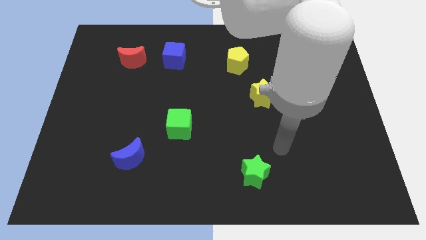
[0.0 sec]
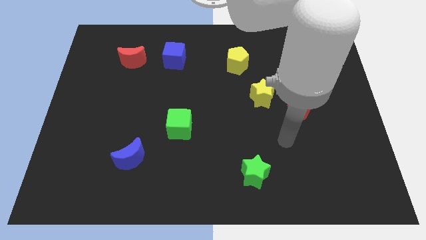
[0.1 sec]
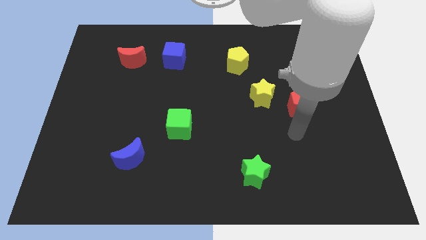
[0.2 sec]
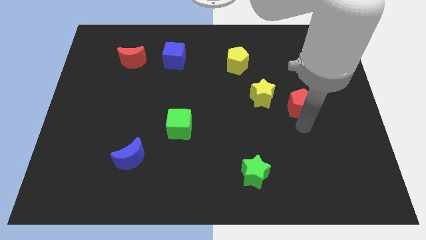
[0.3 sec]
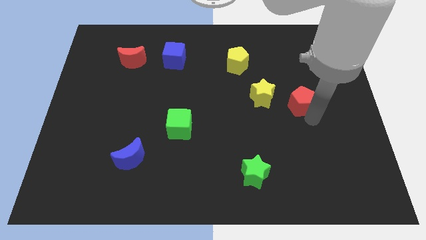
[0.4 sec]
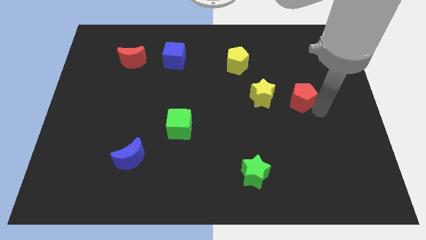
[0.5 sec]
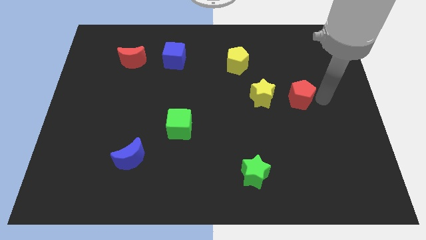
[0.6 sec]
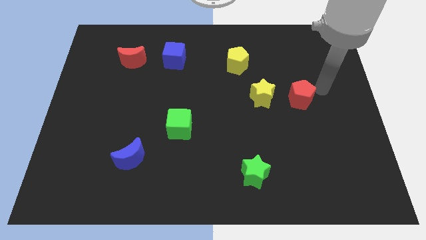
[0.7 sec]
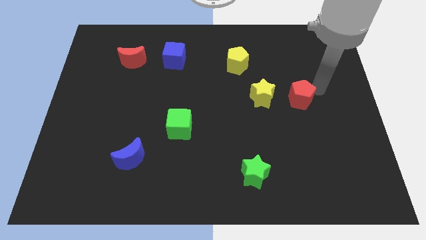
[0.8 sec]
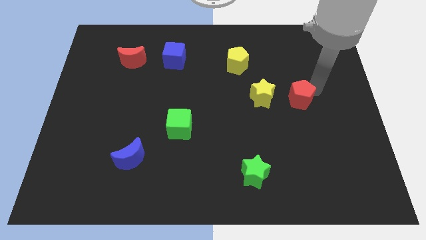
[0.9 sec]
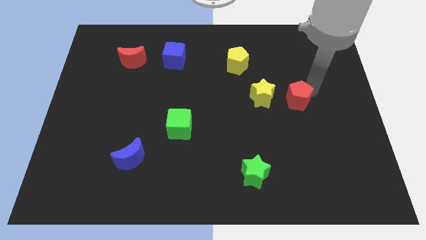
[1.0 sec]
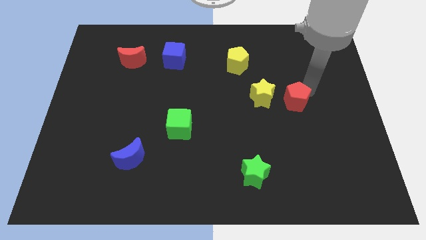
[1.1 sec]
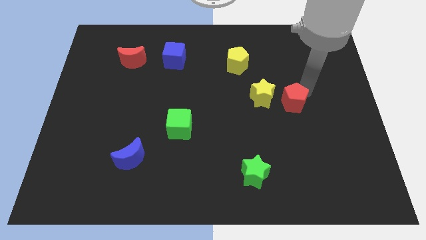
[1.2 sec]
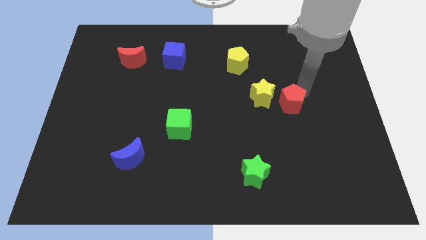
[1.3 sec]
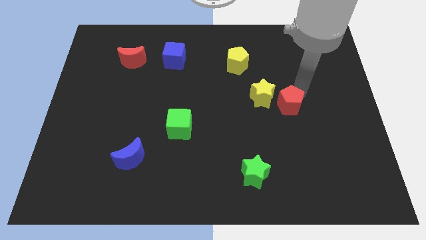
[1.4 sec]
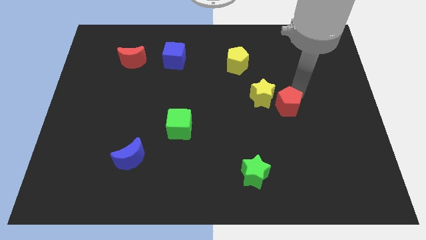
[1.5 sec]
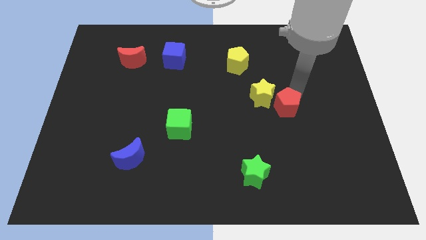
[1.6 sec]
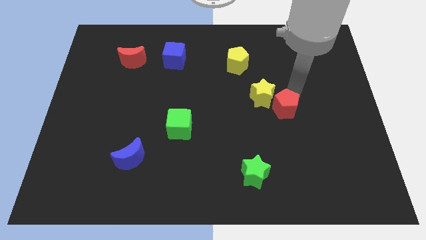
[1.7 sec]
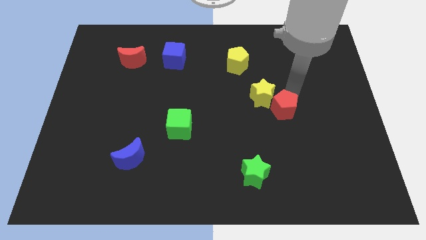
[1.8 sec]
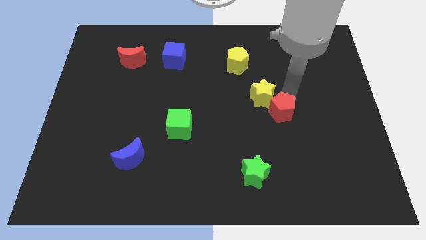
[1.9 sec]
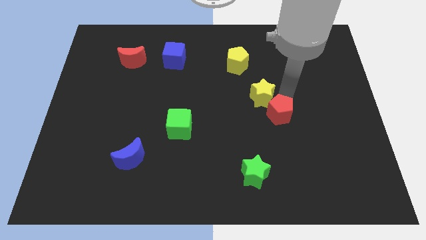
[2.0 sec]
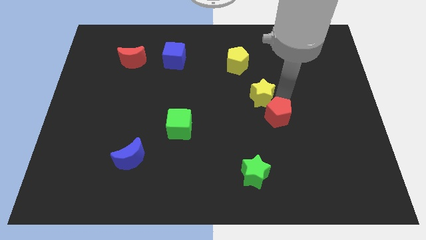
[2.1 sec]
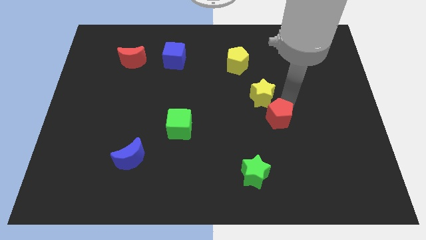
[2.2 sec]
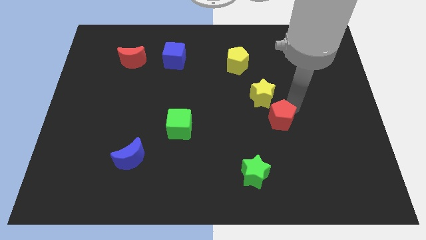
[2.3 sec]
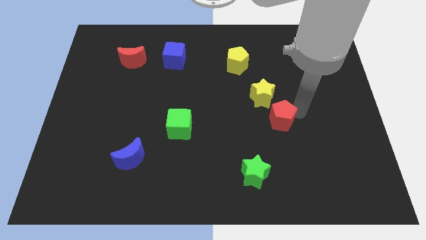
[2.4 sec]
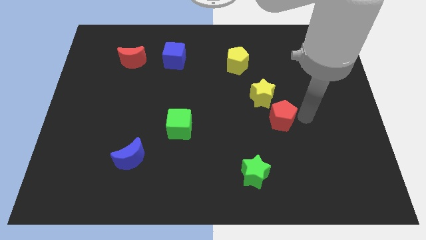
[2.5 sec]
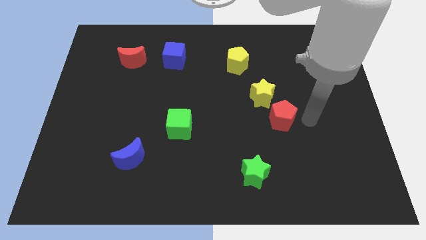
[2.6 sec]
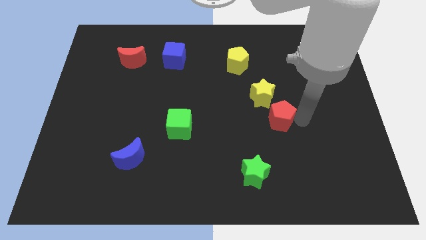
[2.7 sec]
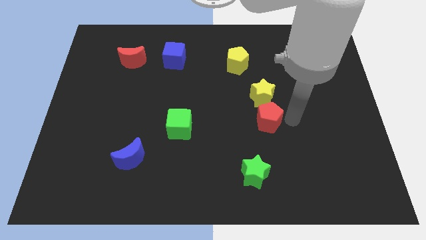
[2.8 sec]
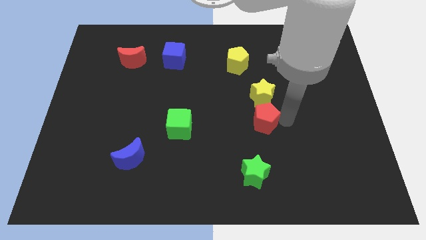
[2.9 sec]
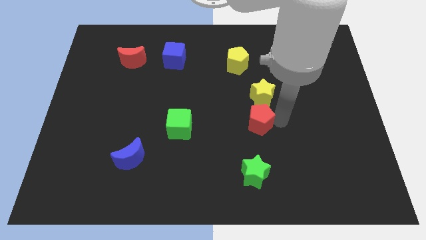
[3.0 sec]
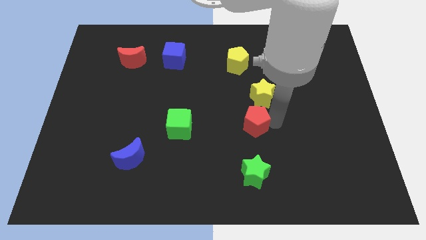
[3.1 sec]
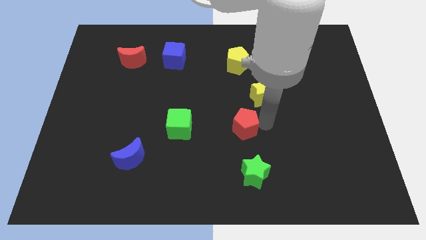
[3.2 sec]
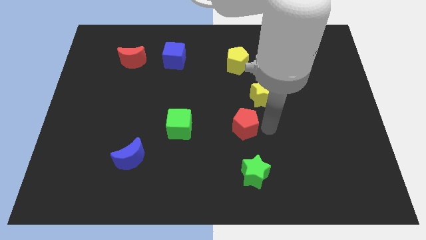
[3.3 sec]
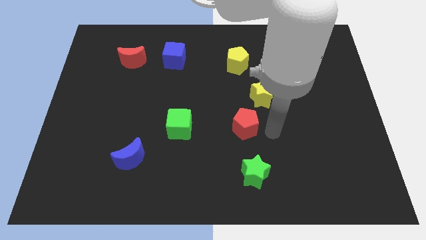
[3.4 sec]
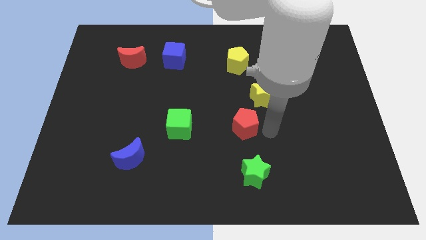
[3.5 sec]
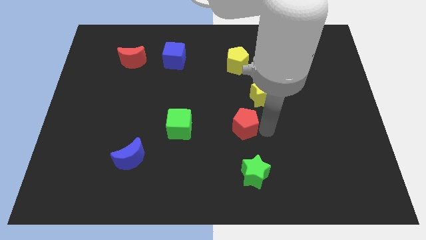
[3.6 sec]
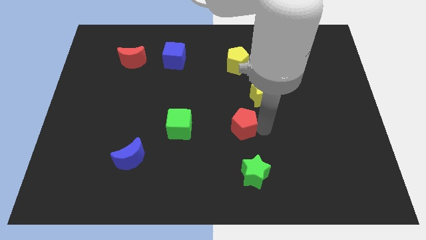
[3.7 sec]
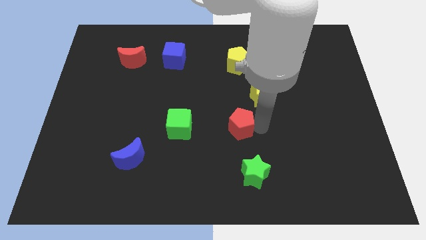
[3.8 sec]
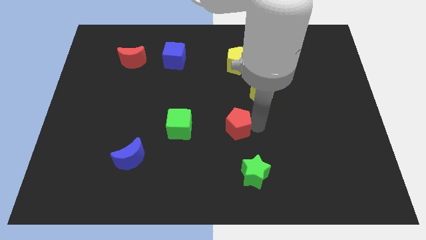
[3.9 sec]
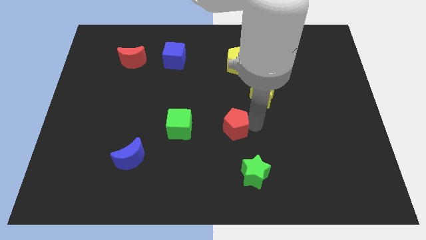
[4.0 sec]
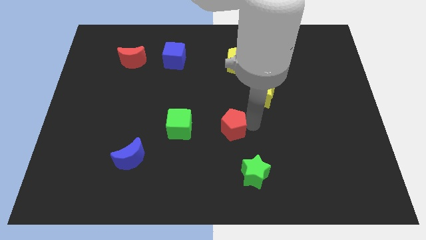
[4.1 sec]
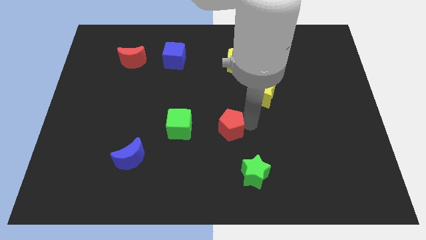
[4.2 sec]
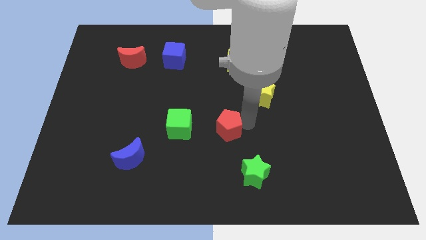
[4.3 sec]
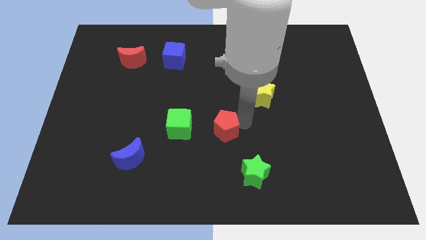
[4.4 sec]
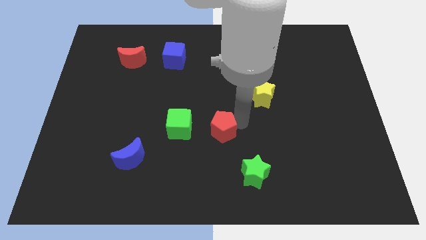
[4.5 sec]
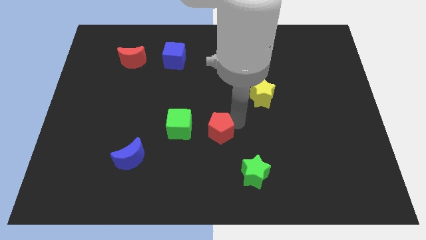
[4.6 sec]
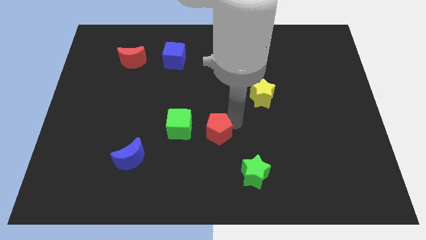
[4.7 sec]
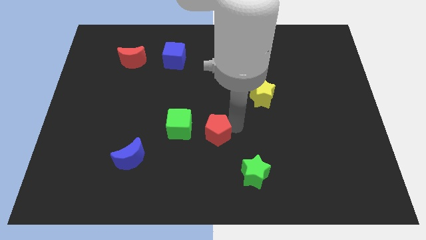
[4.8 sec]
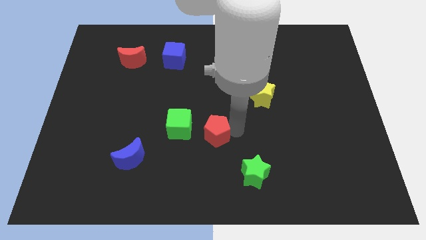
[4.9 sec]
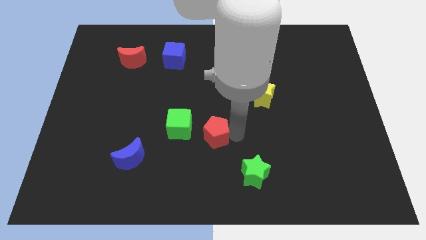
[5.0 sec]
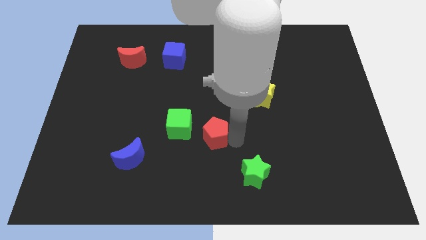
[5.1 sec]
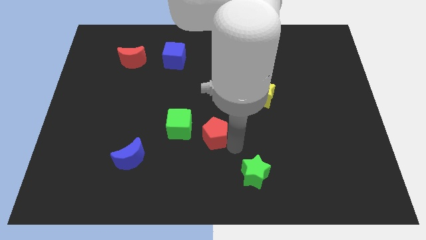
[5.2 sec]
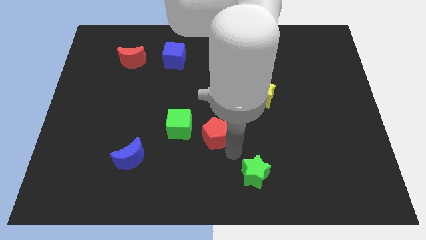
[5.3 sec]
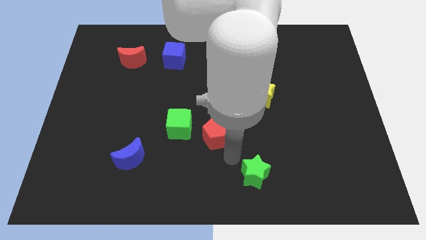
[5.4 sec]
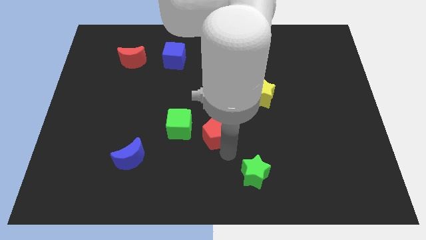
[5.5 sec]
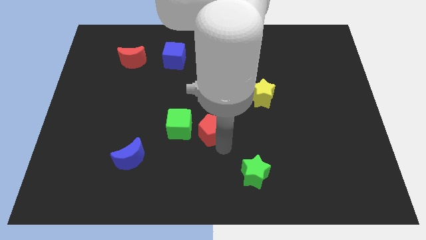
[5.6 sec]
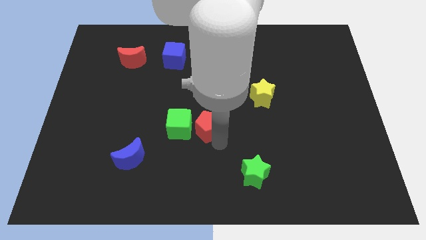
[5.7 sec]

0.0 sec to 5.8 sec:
move the red pentagon next to the green cube

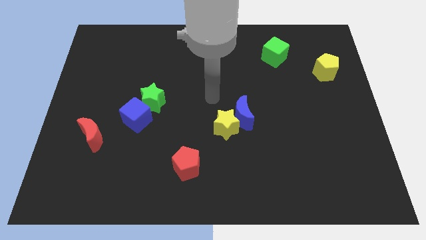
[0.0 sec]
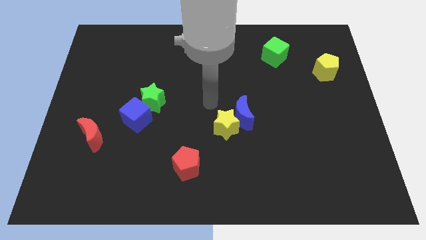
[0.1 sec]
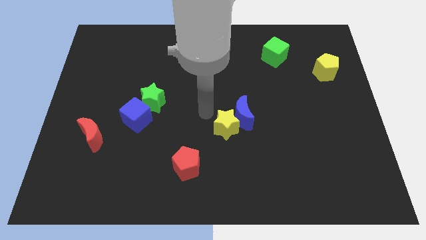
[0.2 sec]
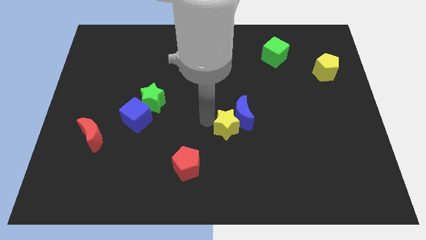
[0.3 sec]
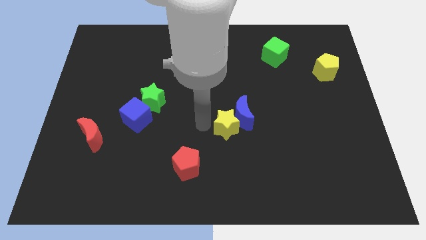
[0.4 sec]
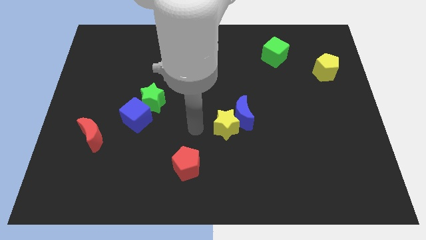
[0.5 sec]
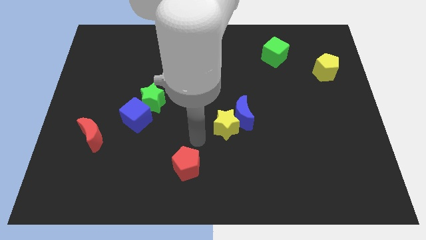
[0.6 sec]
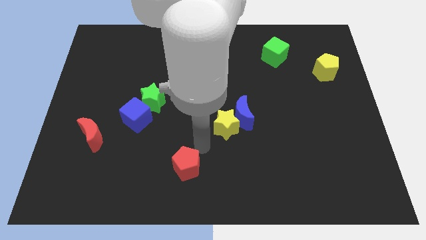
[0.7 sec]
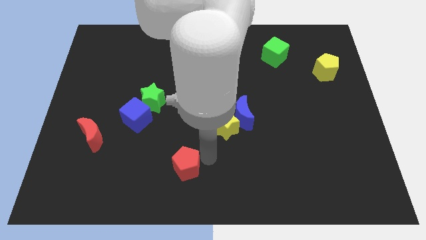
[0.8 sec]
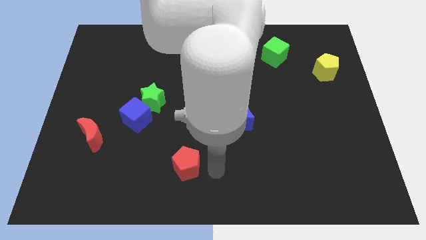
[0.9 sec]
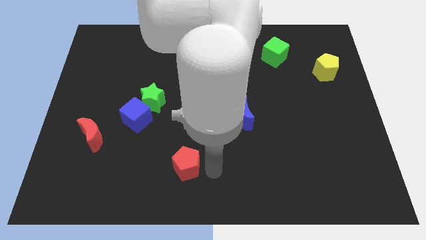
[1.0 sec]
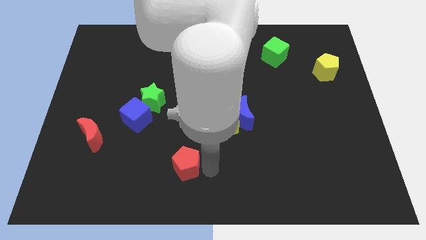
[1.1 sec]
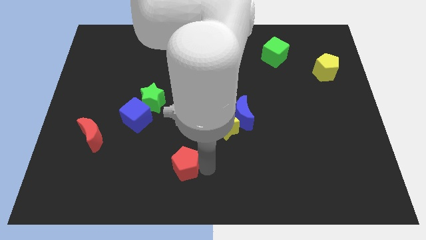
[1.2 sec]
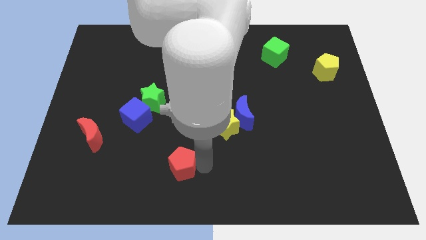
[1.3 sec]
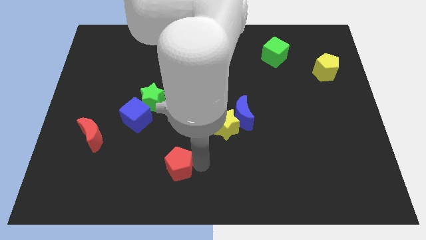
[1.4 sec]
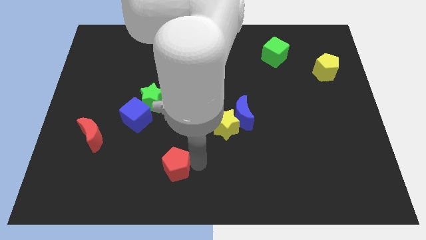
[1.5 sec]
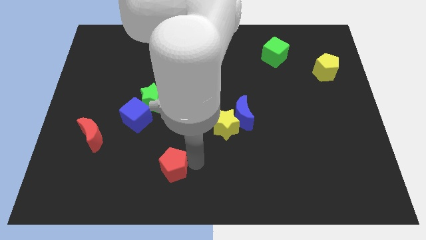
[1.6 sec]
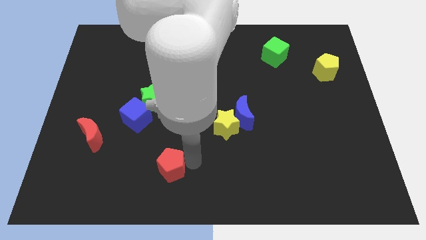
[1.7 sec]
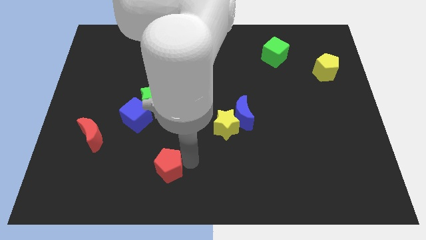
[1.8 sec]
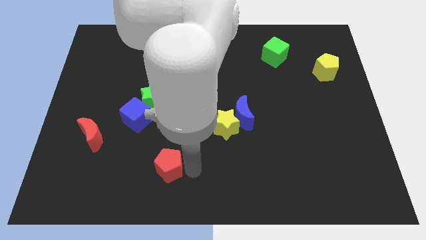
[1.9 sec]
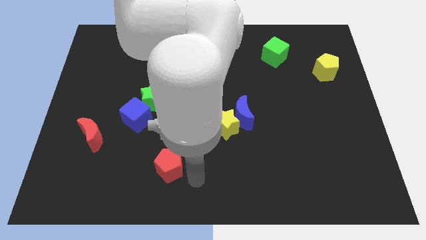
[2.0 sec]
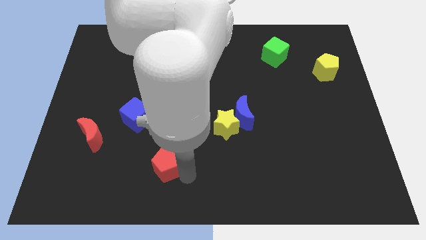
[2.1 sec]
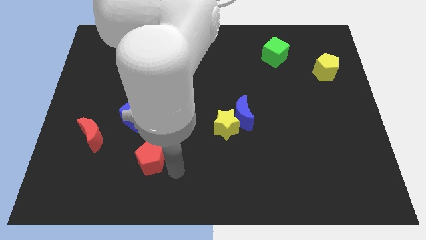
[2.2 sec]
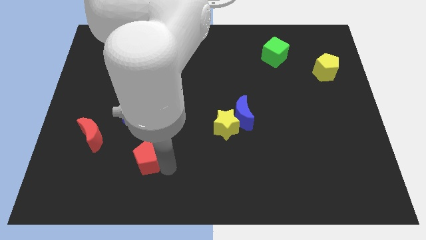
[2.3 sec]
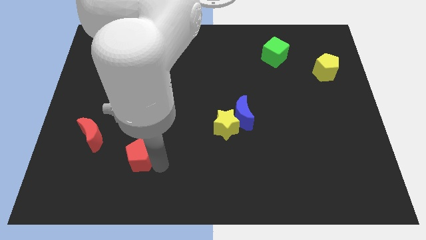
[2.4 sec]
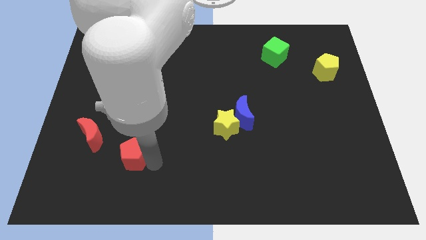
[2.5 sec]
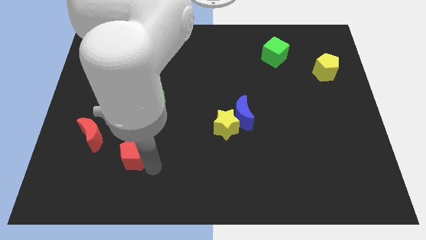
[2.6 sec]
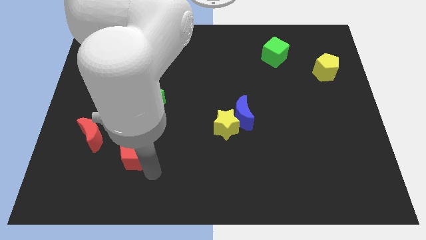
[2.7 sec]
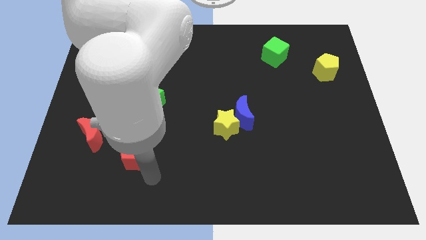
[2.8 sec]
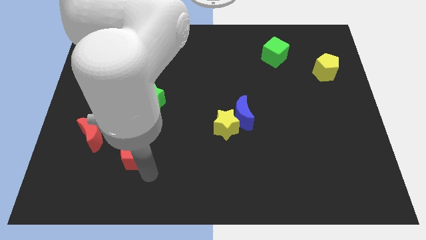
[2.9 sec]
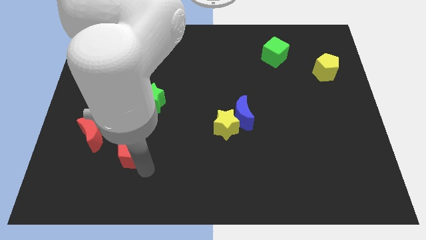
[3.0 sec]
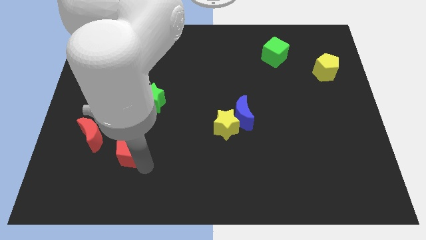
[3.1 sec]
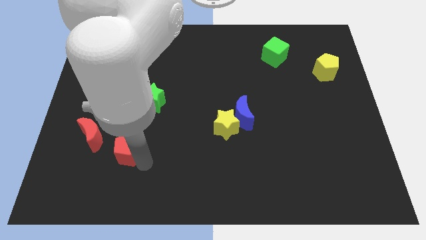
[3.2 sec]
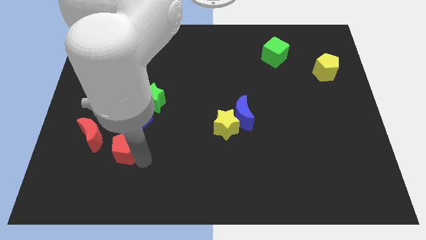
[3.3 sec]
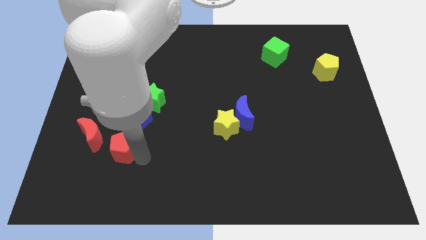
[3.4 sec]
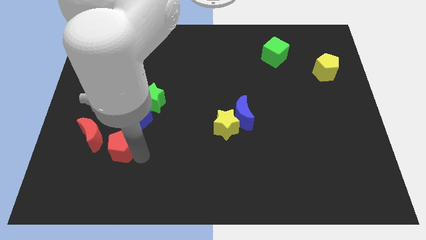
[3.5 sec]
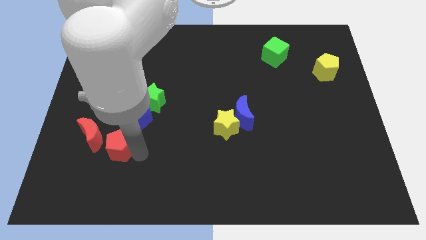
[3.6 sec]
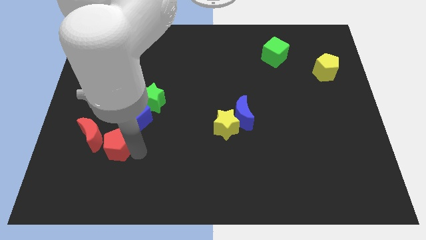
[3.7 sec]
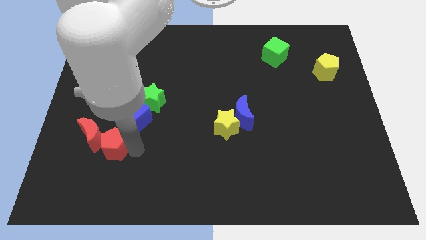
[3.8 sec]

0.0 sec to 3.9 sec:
move the red pentagon to the red moon
